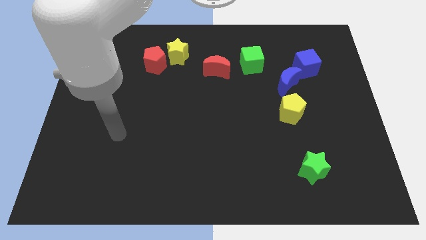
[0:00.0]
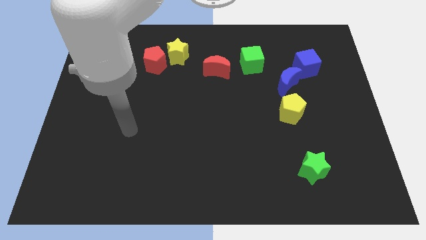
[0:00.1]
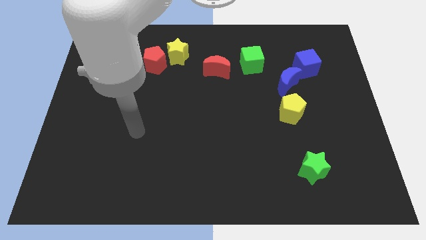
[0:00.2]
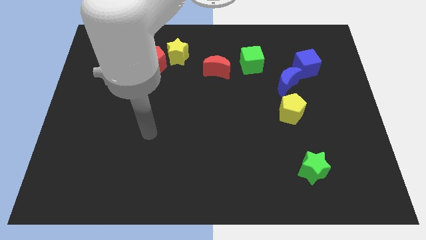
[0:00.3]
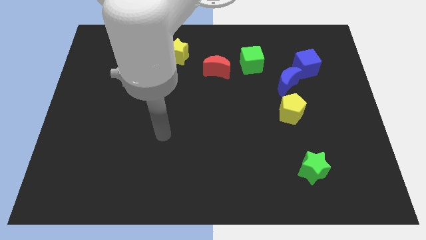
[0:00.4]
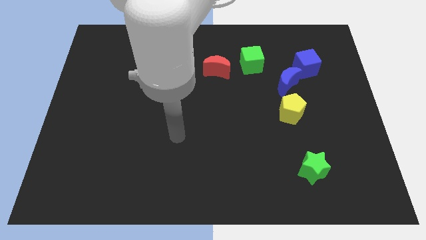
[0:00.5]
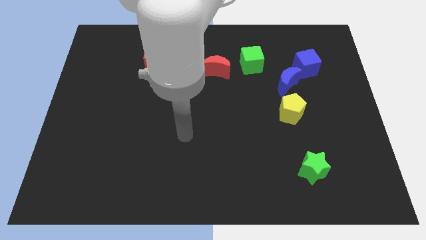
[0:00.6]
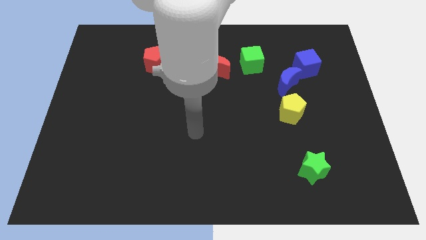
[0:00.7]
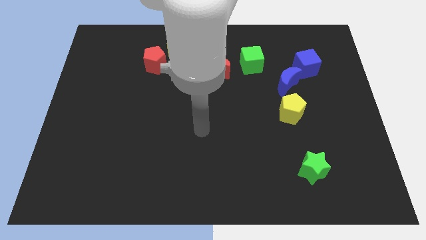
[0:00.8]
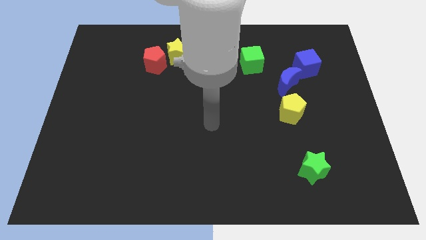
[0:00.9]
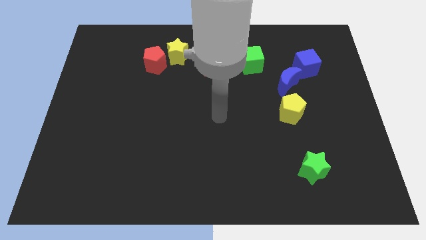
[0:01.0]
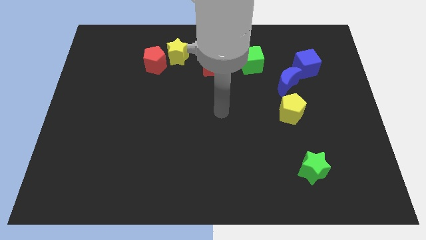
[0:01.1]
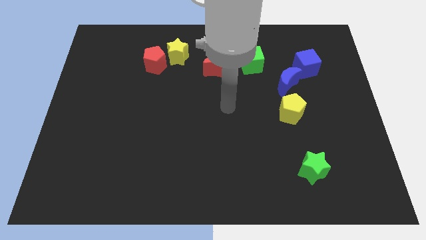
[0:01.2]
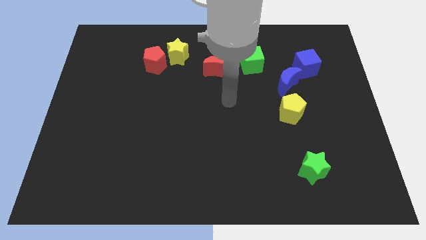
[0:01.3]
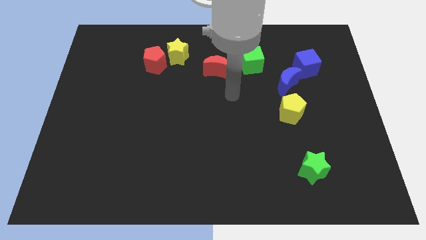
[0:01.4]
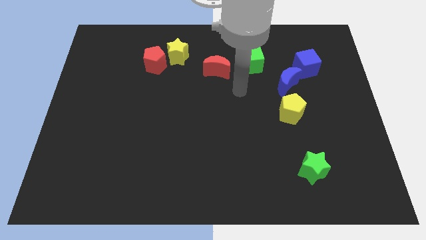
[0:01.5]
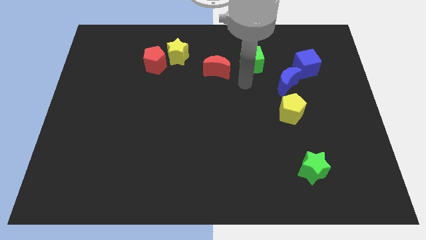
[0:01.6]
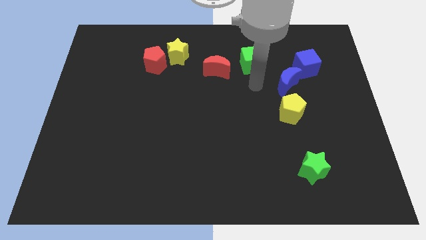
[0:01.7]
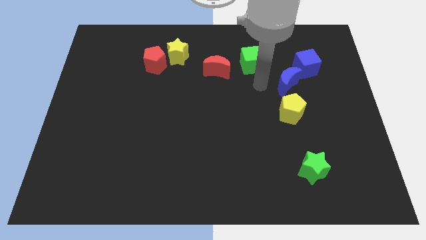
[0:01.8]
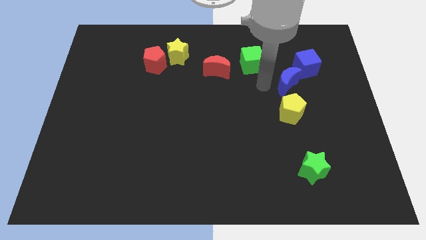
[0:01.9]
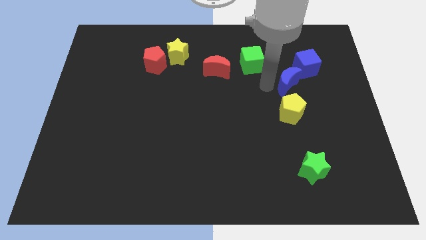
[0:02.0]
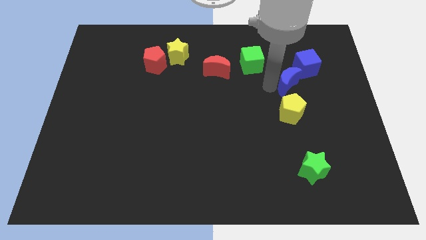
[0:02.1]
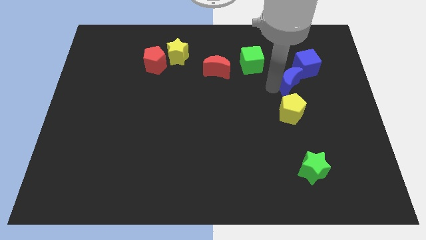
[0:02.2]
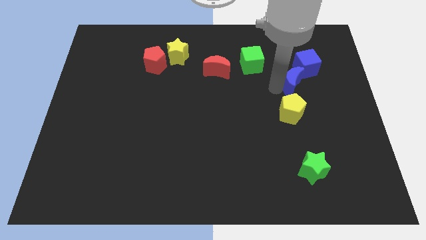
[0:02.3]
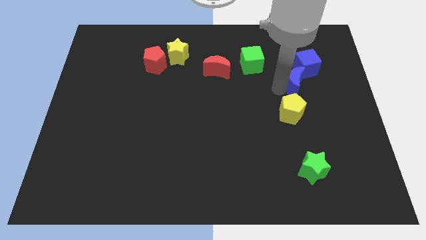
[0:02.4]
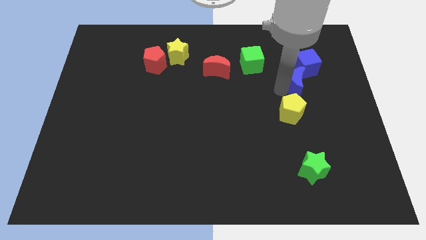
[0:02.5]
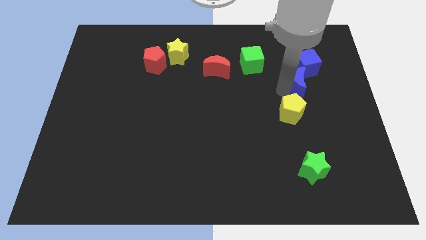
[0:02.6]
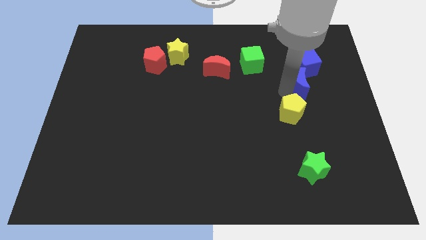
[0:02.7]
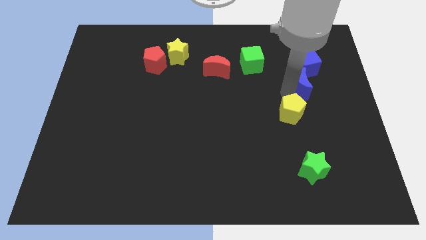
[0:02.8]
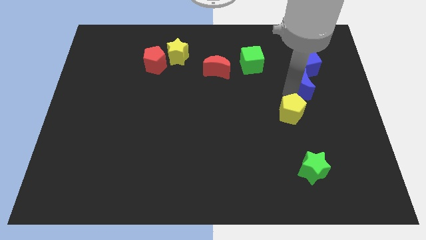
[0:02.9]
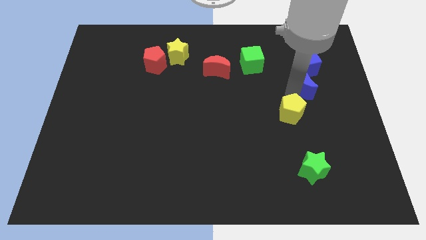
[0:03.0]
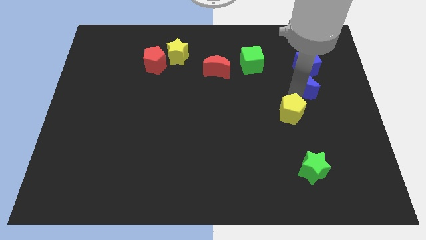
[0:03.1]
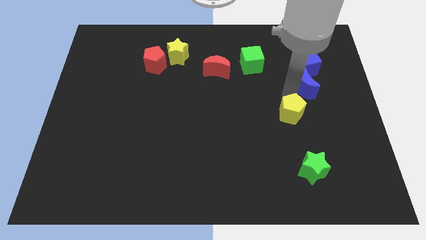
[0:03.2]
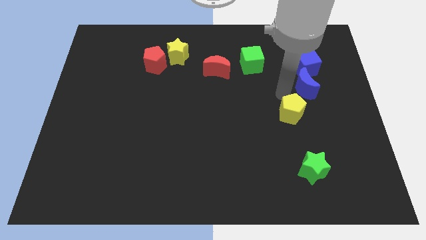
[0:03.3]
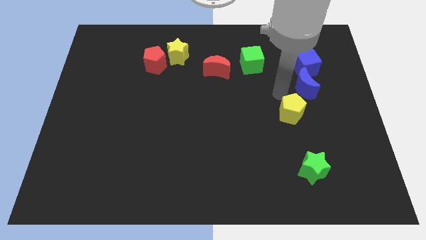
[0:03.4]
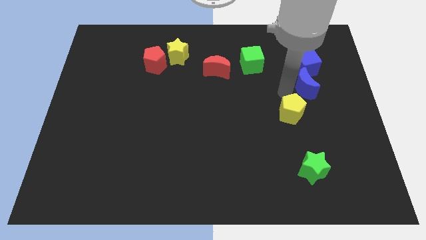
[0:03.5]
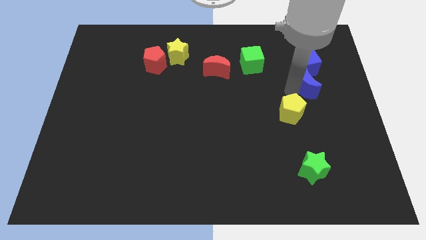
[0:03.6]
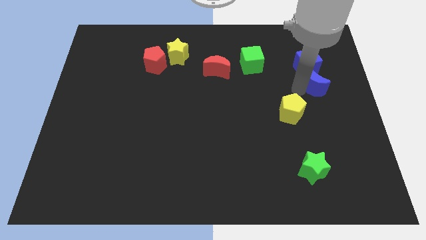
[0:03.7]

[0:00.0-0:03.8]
slide the blue moon diagonally down and to the right of the blue cube

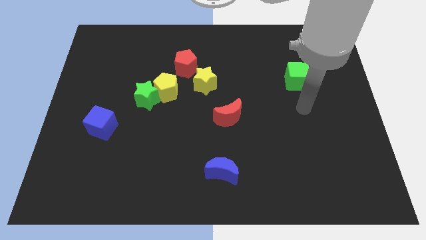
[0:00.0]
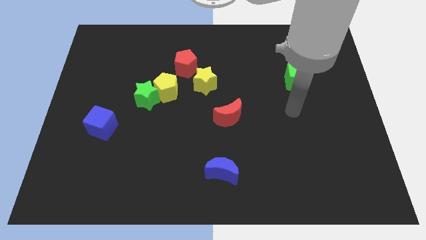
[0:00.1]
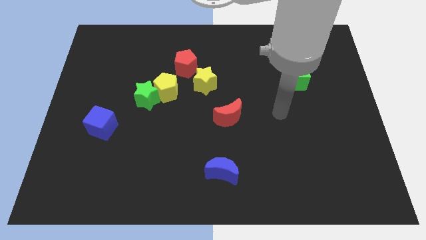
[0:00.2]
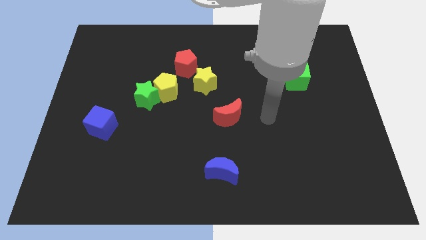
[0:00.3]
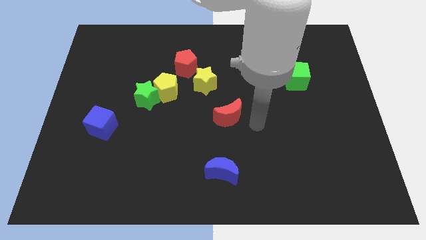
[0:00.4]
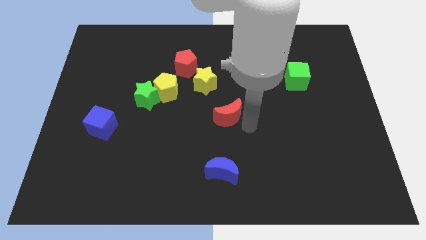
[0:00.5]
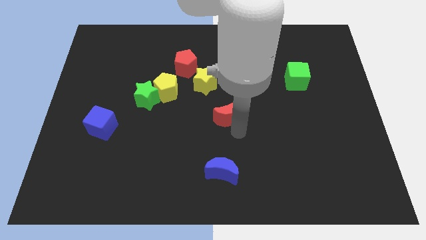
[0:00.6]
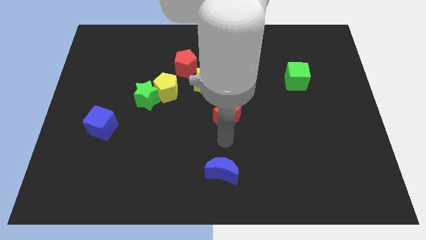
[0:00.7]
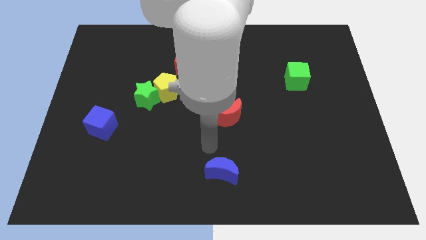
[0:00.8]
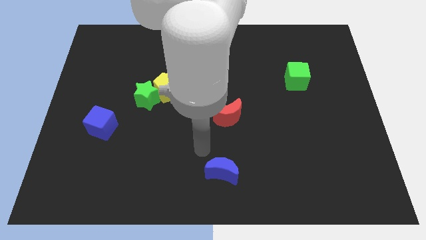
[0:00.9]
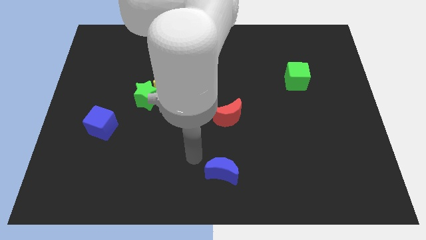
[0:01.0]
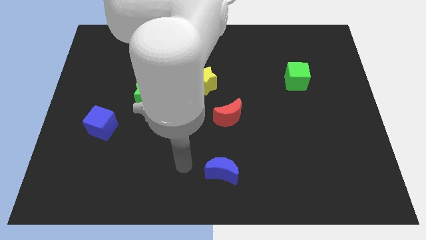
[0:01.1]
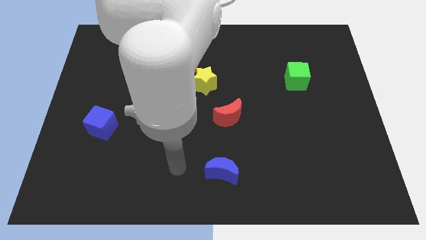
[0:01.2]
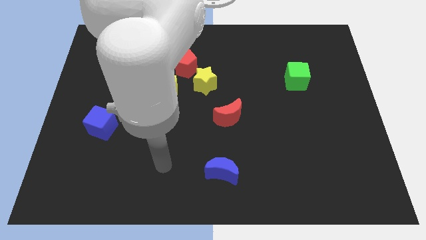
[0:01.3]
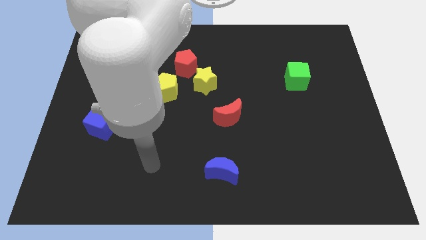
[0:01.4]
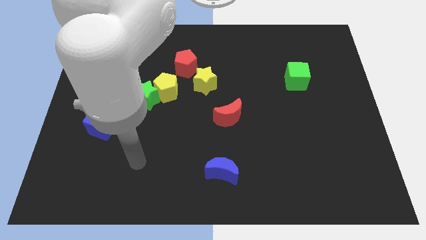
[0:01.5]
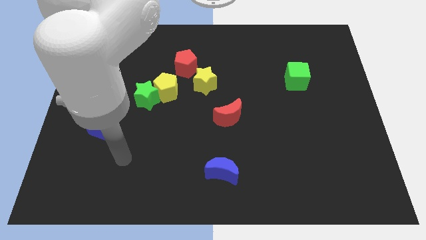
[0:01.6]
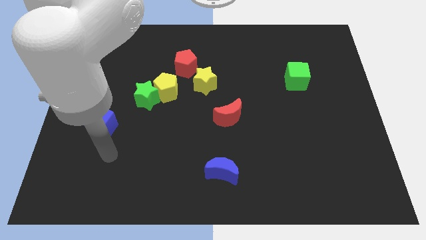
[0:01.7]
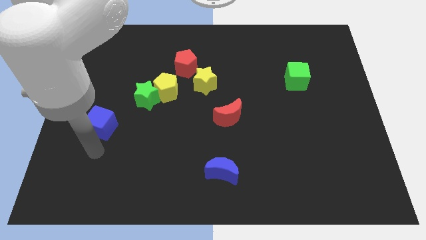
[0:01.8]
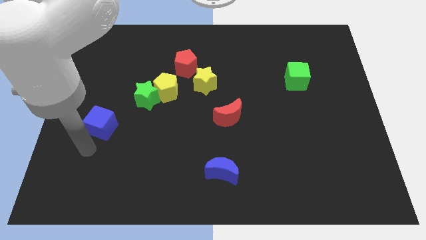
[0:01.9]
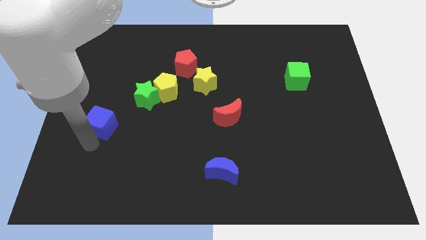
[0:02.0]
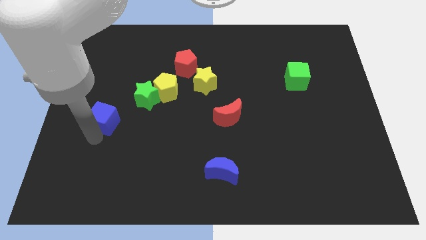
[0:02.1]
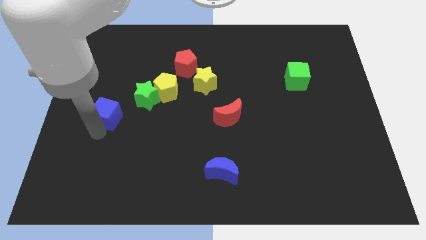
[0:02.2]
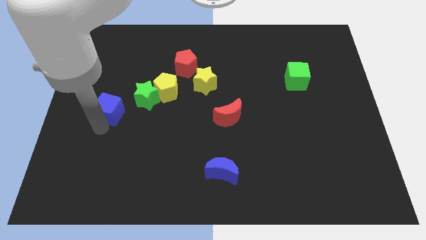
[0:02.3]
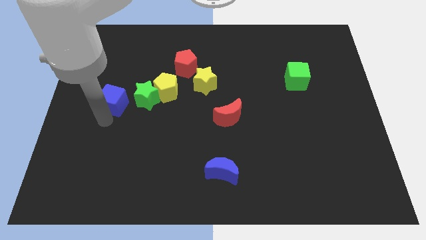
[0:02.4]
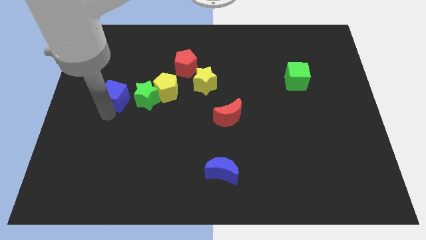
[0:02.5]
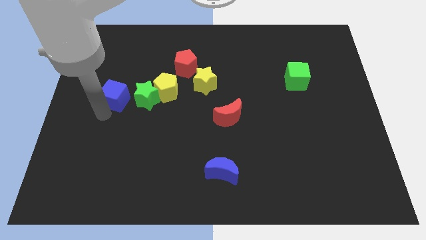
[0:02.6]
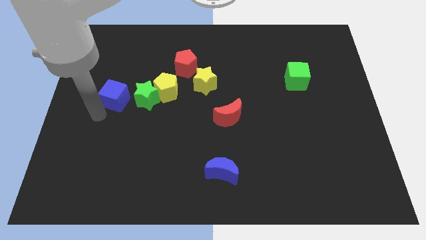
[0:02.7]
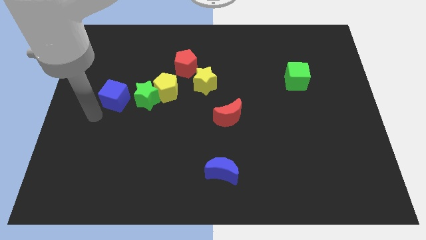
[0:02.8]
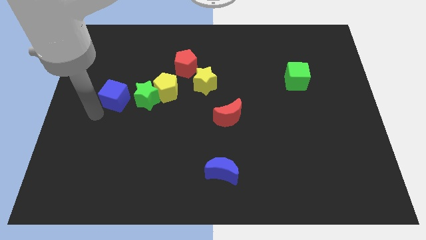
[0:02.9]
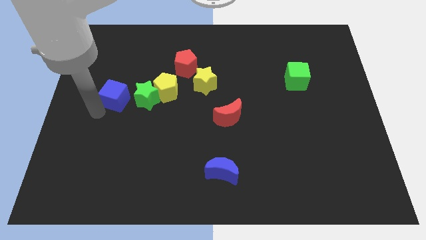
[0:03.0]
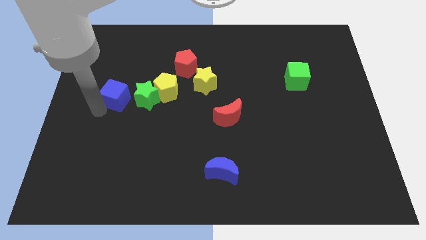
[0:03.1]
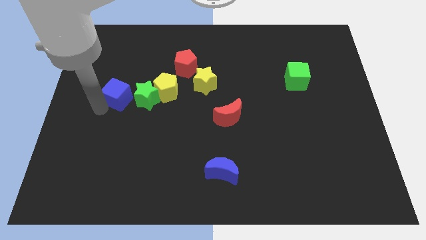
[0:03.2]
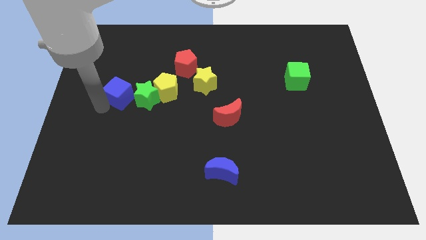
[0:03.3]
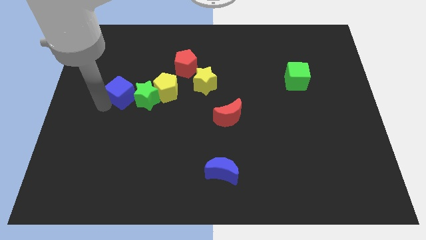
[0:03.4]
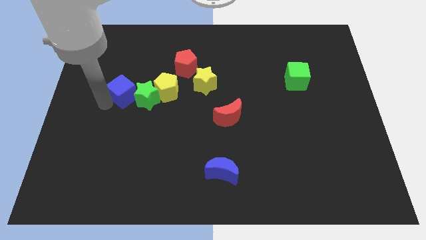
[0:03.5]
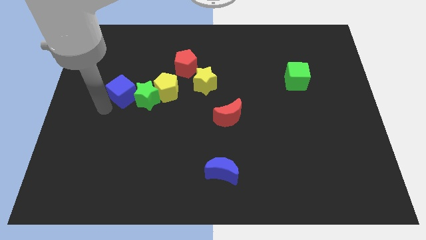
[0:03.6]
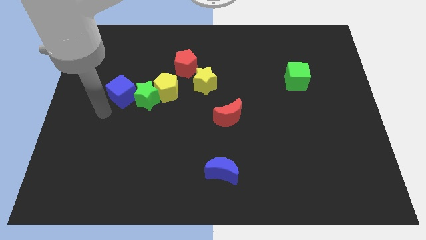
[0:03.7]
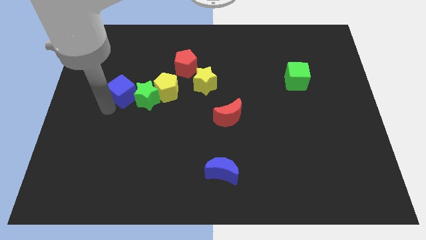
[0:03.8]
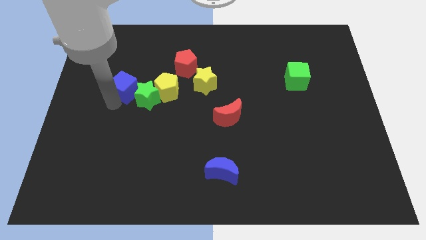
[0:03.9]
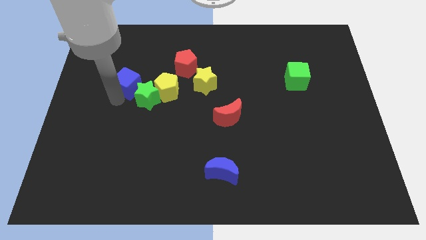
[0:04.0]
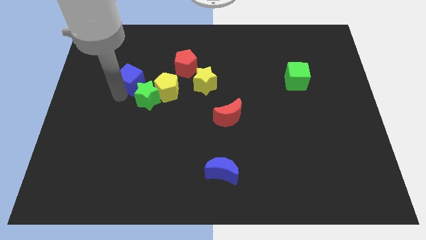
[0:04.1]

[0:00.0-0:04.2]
slide the blue cube above the green star
